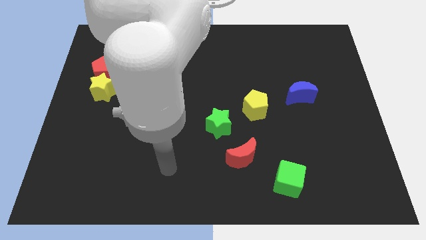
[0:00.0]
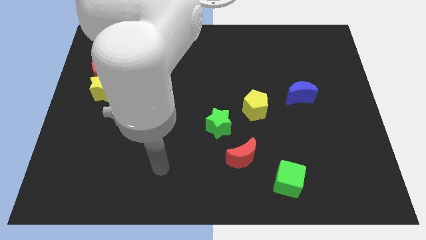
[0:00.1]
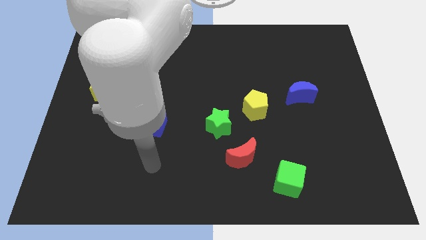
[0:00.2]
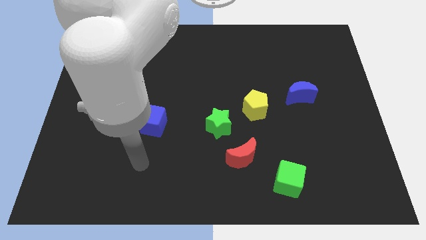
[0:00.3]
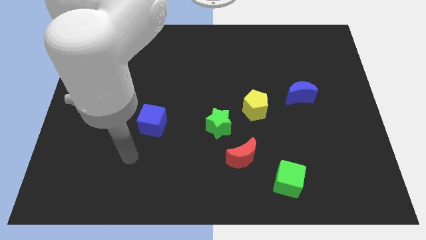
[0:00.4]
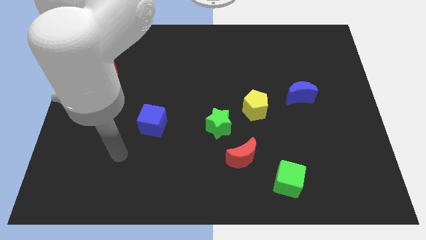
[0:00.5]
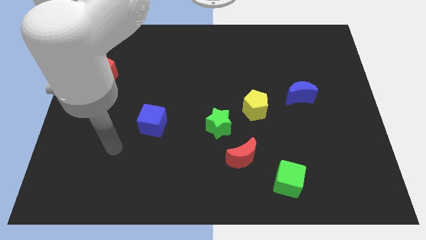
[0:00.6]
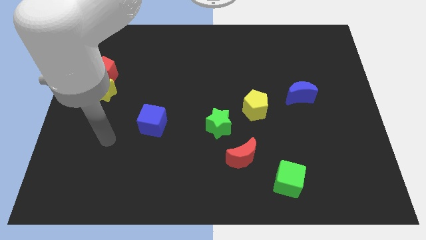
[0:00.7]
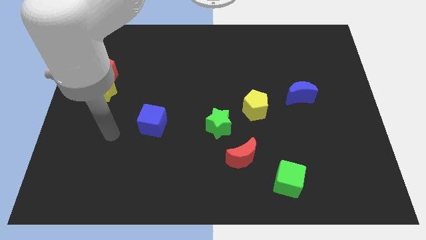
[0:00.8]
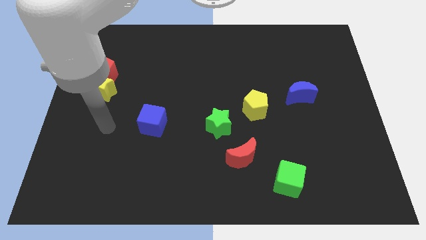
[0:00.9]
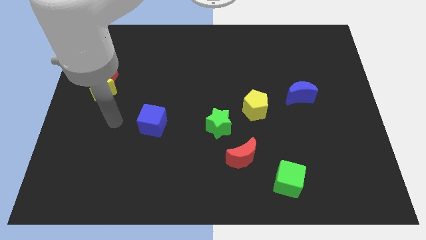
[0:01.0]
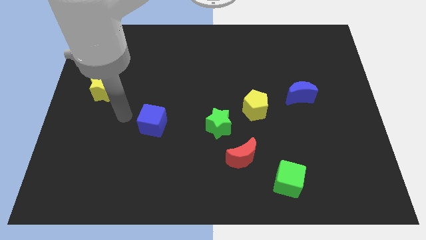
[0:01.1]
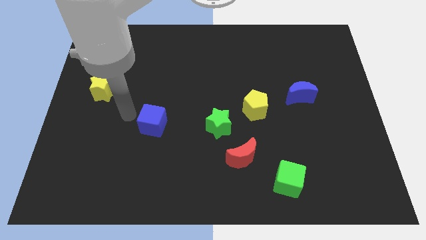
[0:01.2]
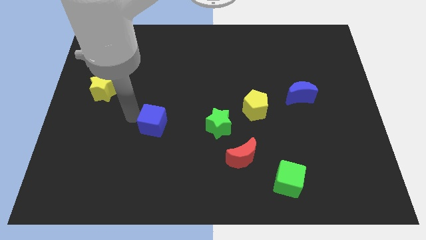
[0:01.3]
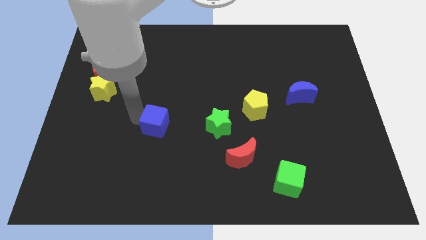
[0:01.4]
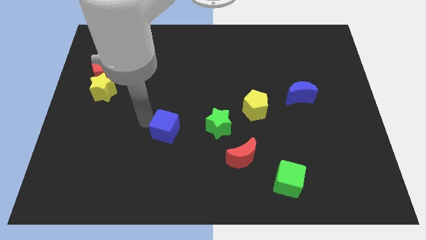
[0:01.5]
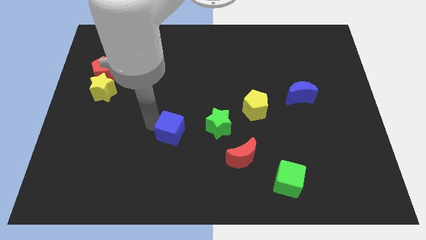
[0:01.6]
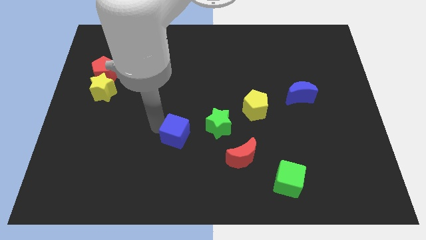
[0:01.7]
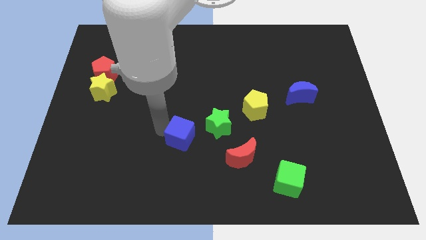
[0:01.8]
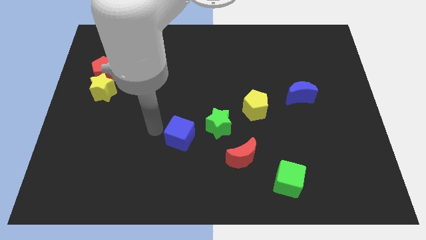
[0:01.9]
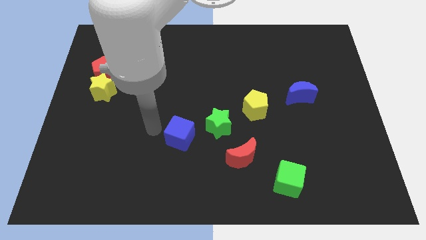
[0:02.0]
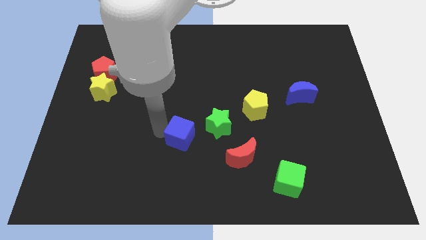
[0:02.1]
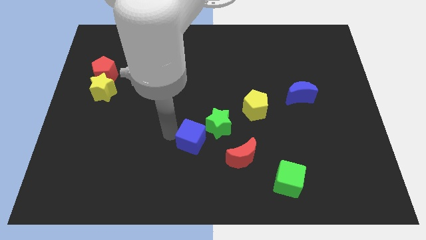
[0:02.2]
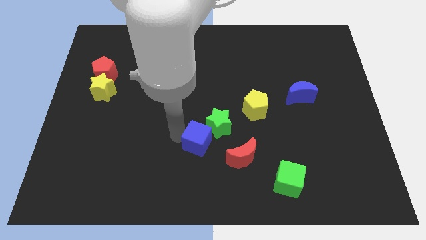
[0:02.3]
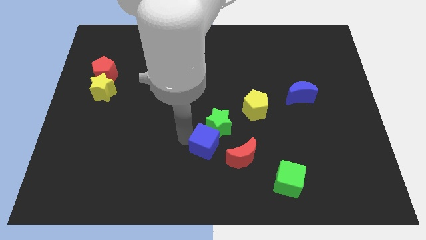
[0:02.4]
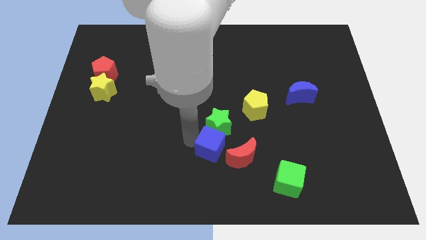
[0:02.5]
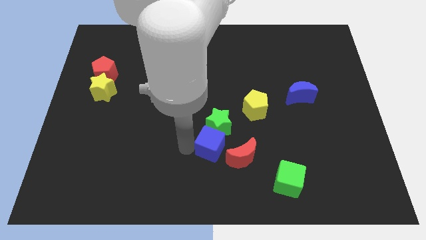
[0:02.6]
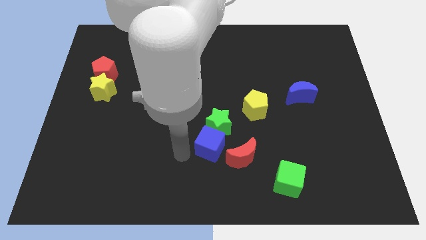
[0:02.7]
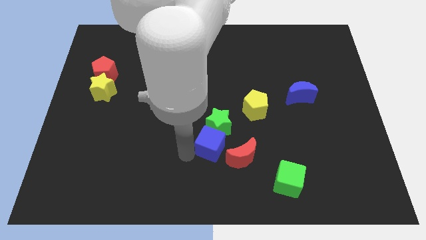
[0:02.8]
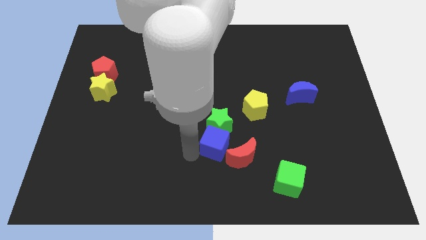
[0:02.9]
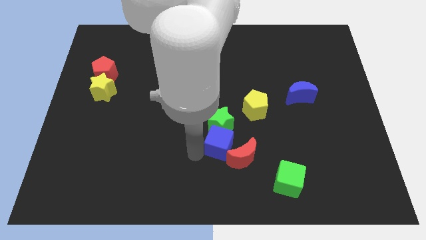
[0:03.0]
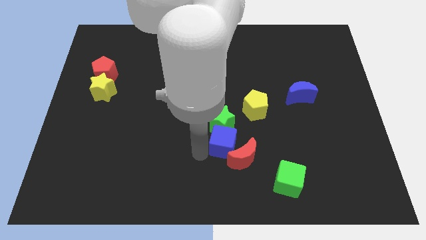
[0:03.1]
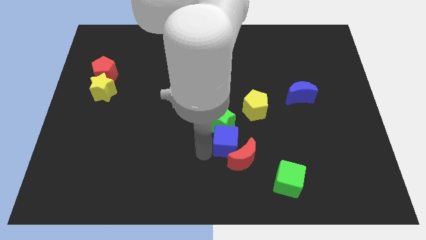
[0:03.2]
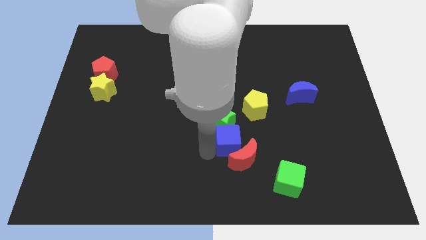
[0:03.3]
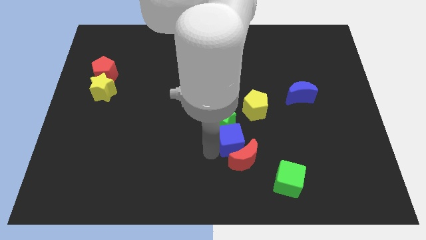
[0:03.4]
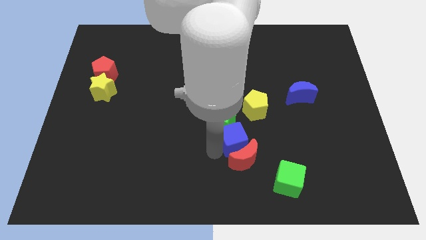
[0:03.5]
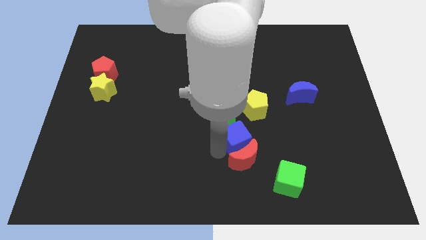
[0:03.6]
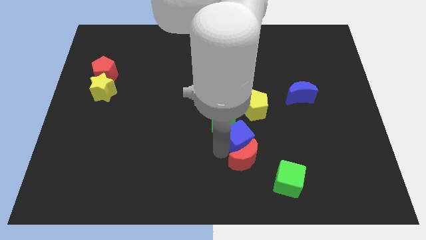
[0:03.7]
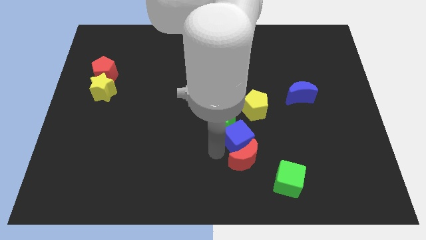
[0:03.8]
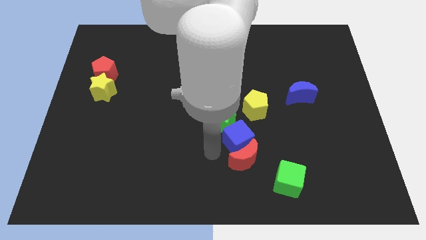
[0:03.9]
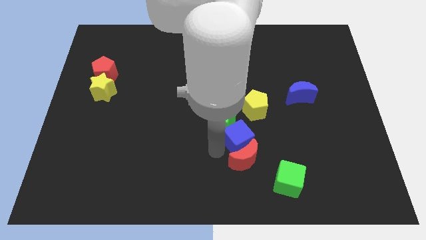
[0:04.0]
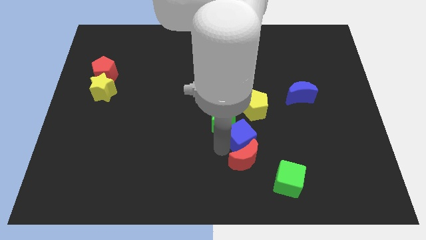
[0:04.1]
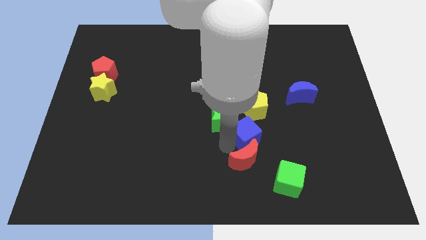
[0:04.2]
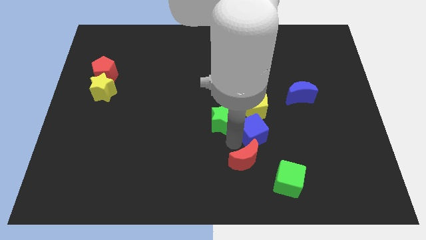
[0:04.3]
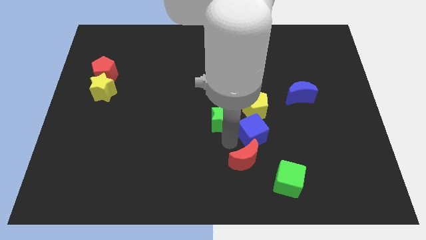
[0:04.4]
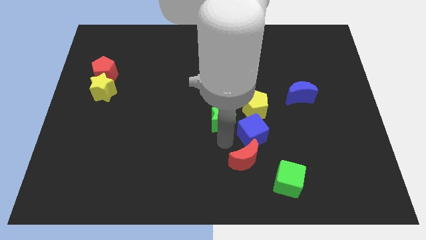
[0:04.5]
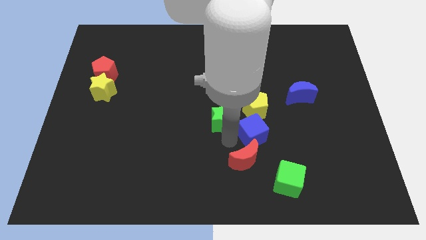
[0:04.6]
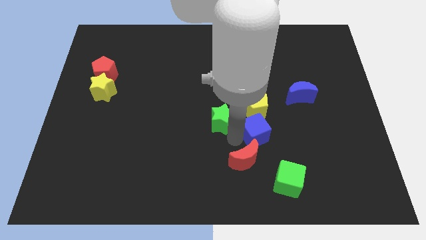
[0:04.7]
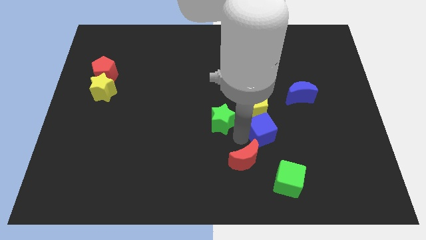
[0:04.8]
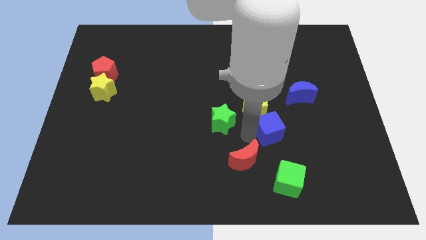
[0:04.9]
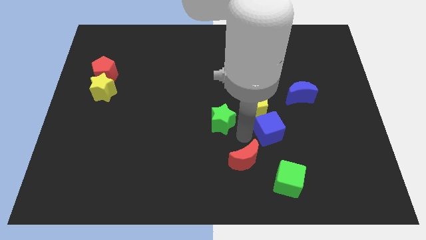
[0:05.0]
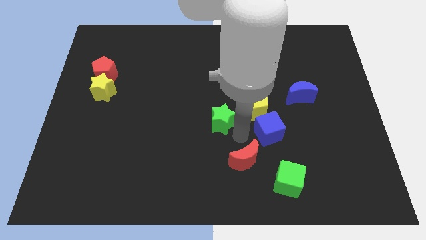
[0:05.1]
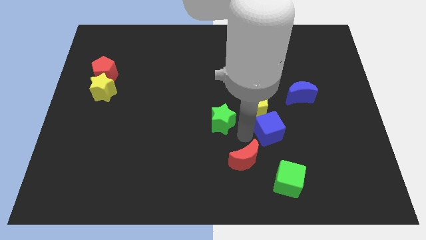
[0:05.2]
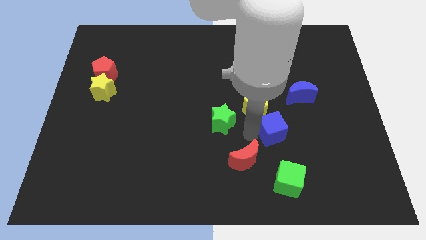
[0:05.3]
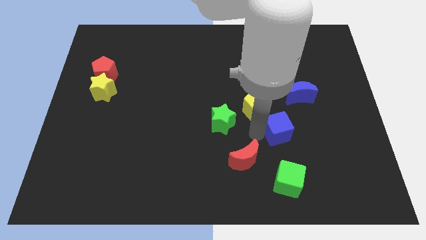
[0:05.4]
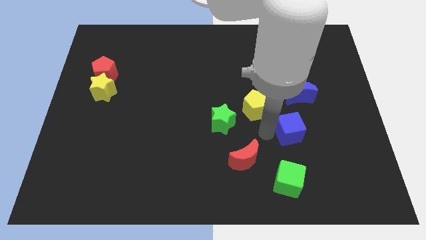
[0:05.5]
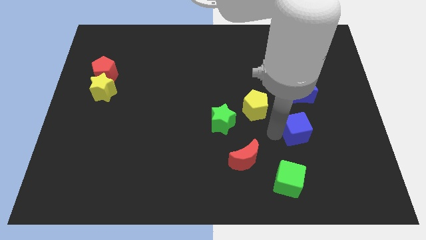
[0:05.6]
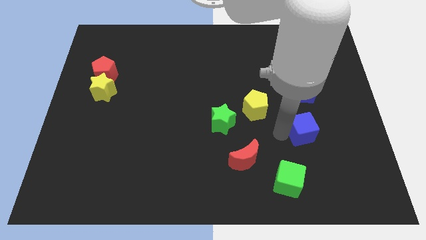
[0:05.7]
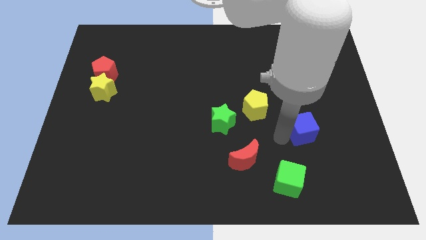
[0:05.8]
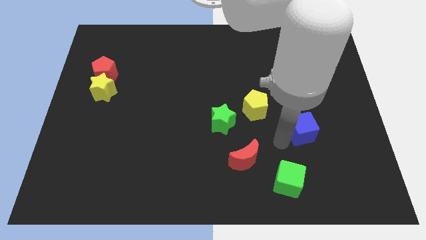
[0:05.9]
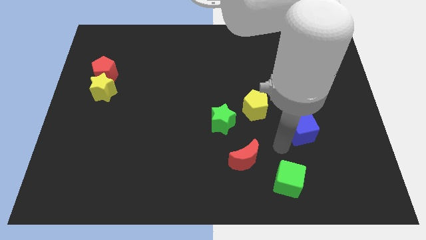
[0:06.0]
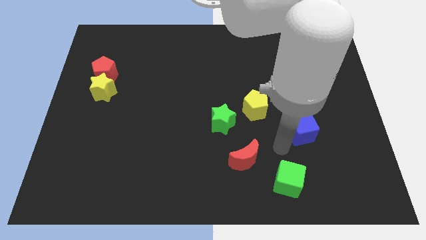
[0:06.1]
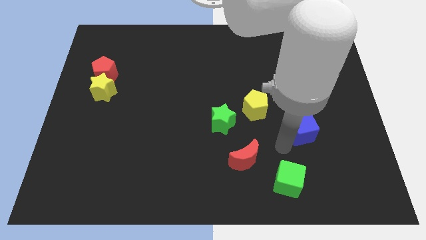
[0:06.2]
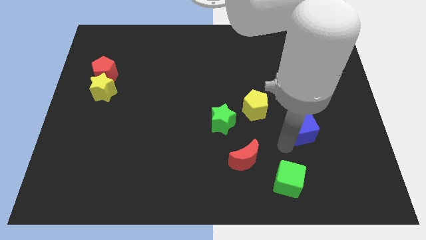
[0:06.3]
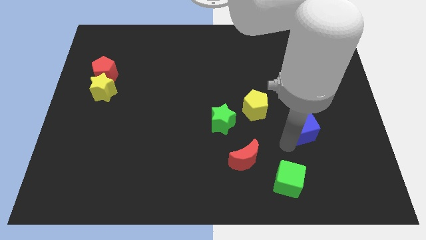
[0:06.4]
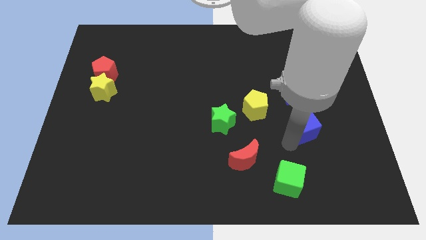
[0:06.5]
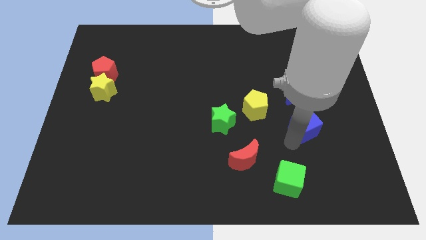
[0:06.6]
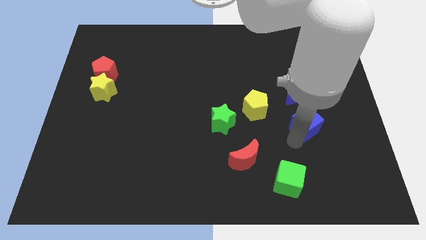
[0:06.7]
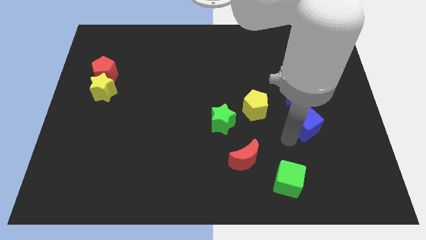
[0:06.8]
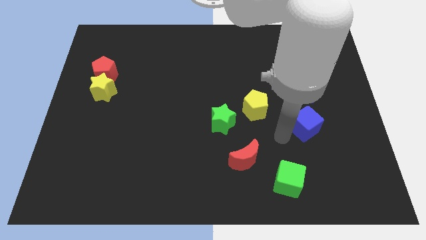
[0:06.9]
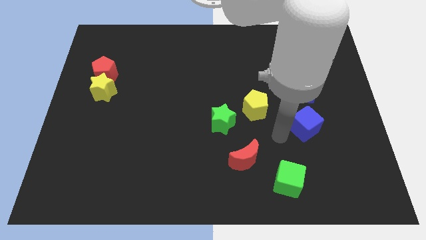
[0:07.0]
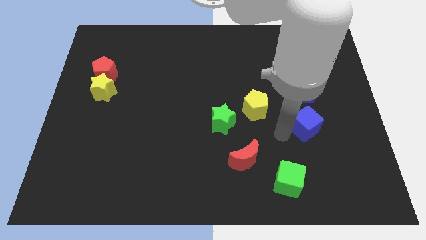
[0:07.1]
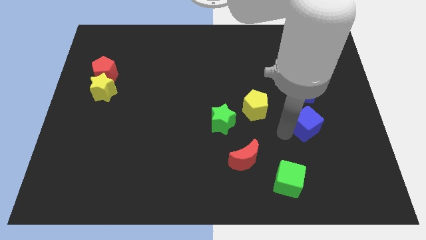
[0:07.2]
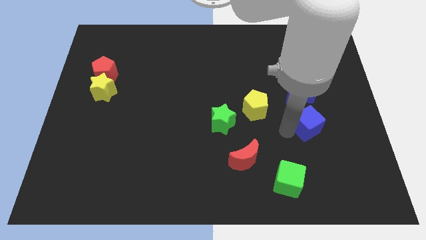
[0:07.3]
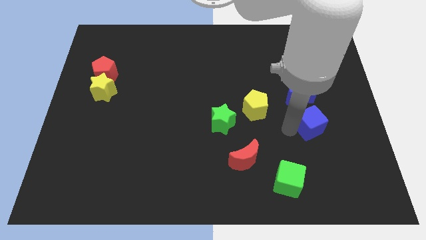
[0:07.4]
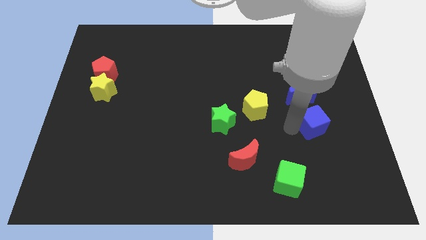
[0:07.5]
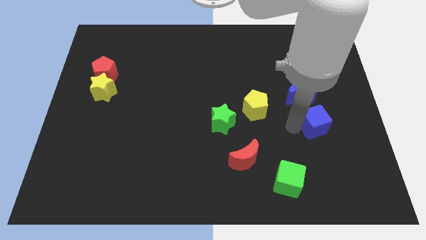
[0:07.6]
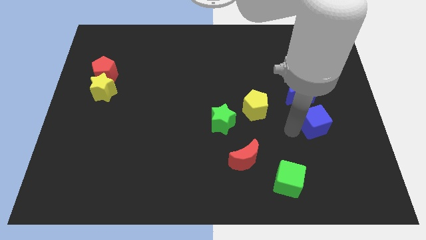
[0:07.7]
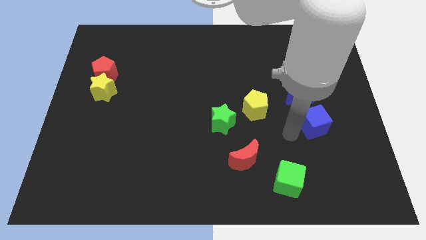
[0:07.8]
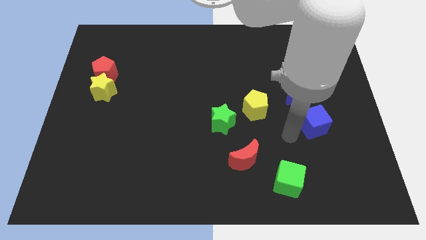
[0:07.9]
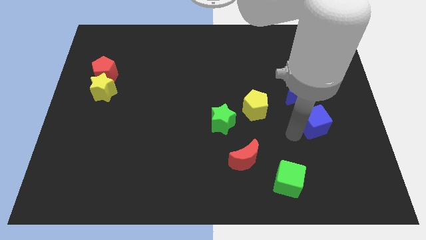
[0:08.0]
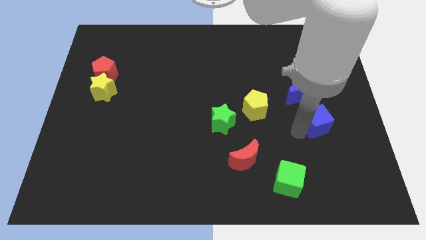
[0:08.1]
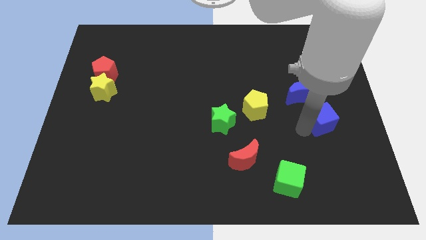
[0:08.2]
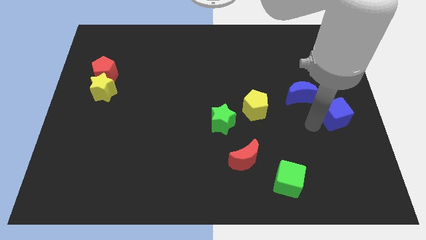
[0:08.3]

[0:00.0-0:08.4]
put the blue cube to the right side of the board
